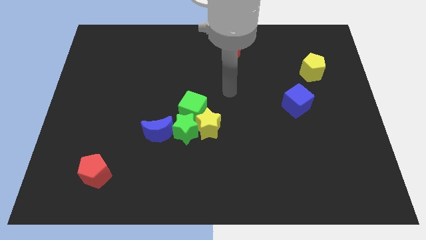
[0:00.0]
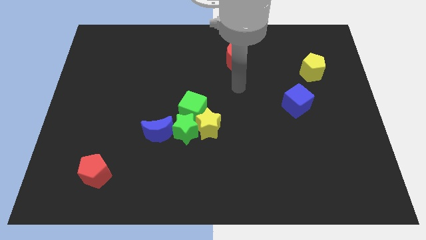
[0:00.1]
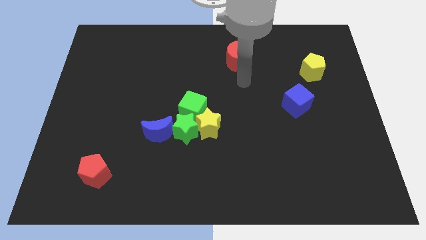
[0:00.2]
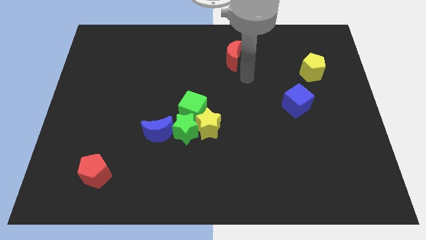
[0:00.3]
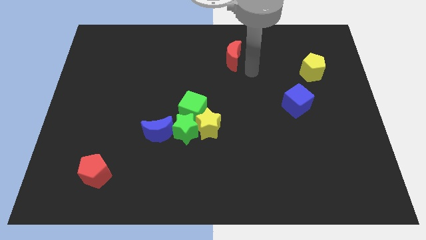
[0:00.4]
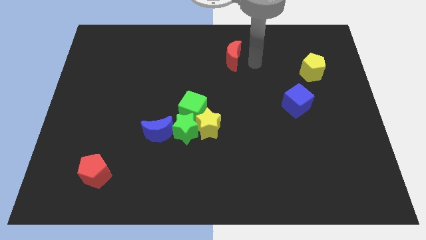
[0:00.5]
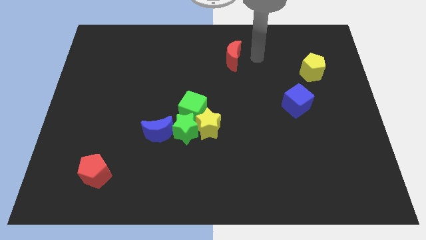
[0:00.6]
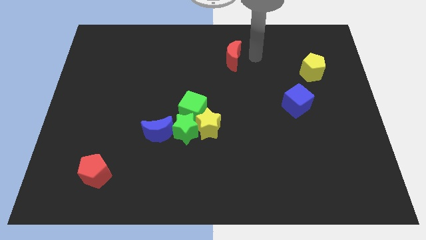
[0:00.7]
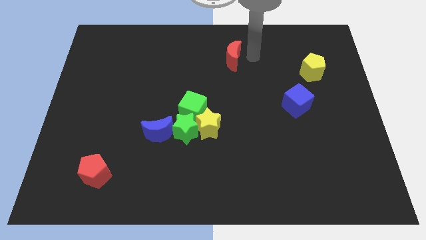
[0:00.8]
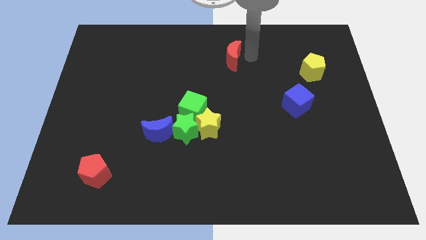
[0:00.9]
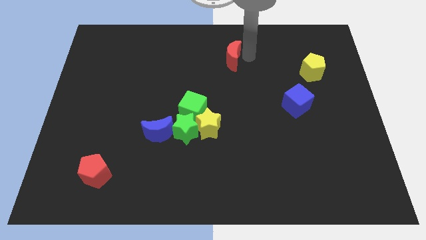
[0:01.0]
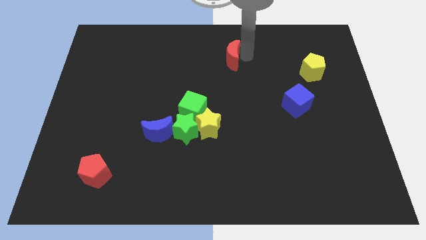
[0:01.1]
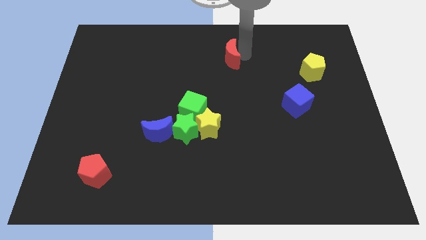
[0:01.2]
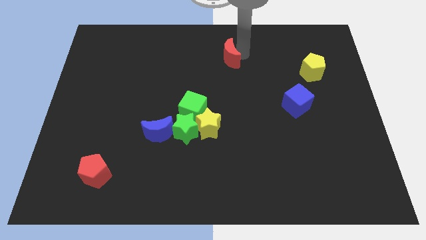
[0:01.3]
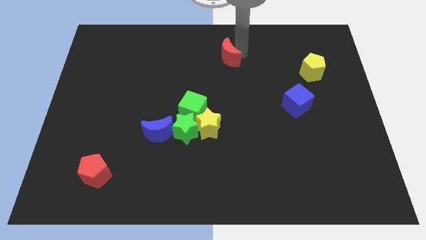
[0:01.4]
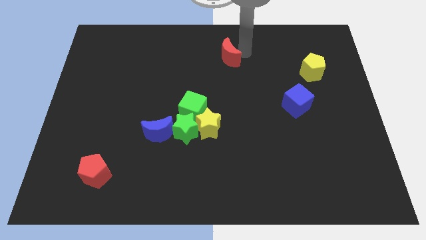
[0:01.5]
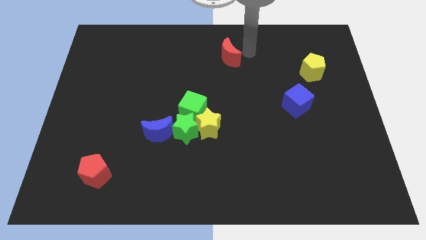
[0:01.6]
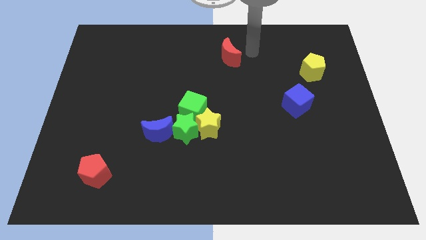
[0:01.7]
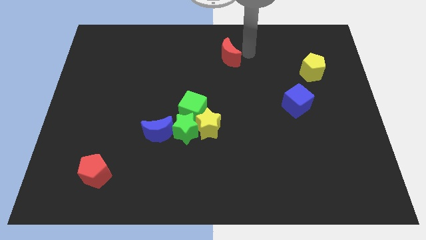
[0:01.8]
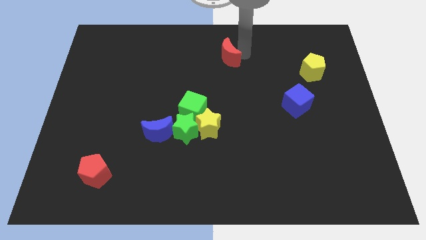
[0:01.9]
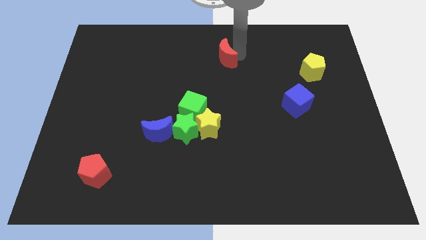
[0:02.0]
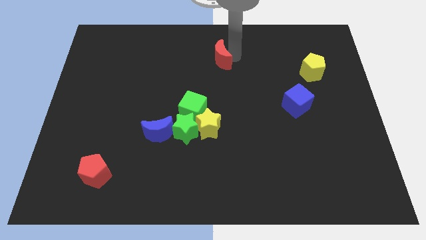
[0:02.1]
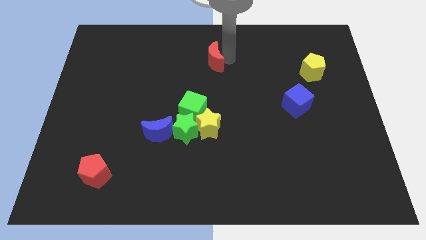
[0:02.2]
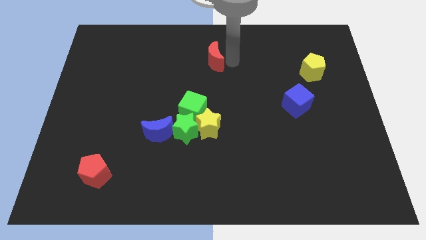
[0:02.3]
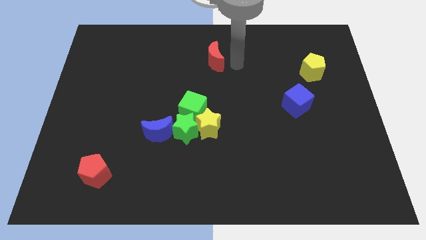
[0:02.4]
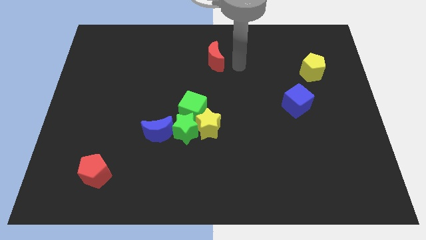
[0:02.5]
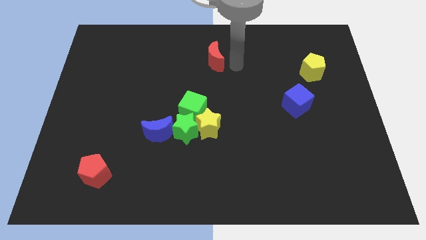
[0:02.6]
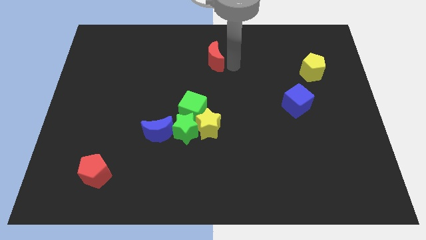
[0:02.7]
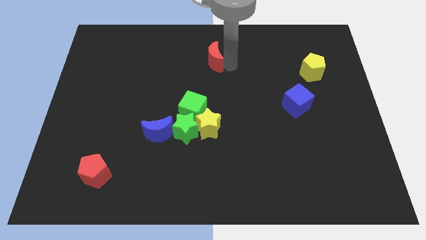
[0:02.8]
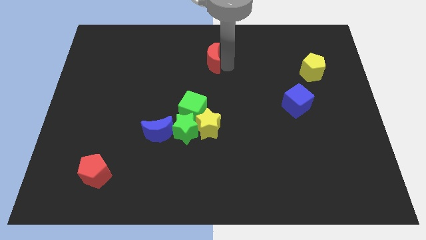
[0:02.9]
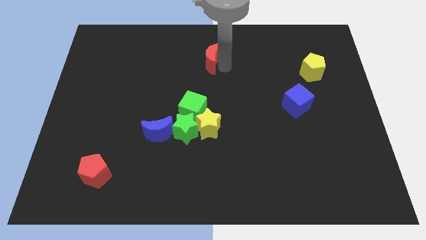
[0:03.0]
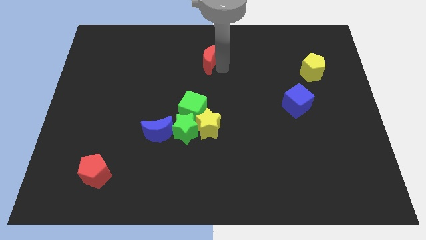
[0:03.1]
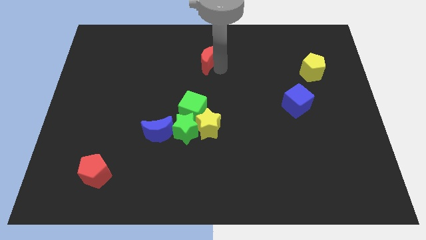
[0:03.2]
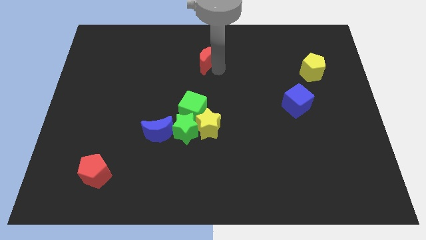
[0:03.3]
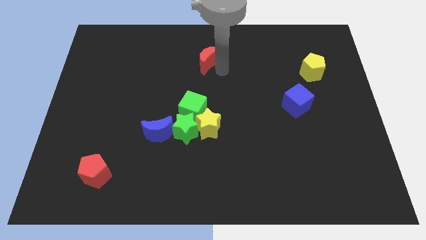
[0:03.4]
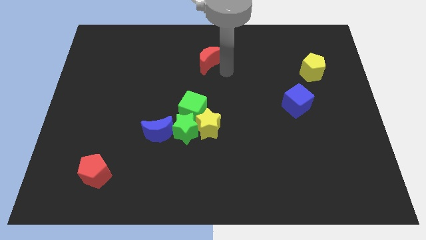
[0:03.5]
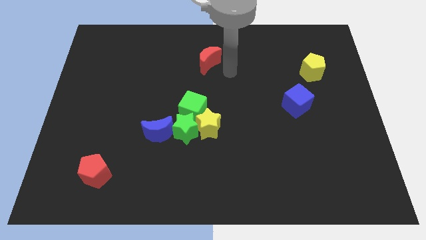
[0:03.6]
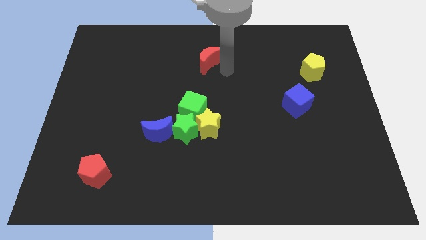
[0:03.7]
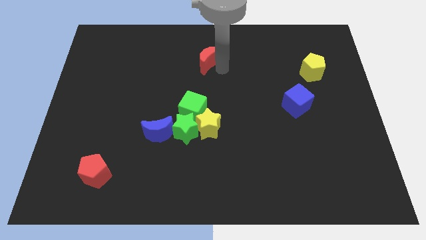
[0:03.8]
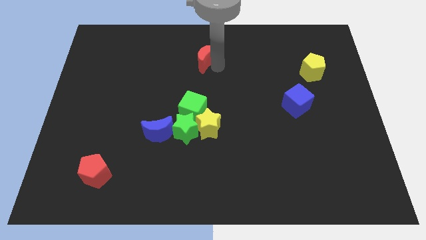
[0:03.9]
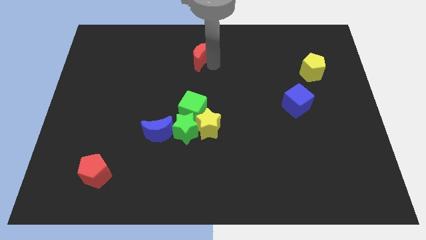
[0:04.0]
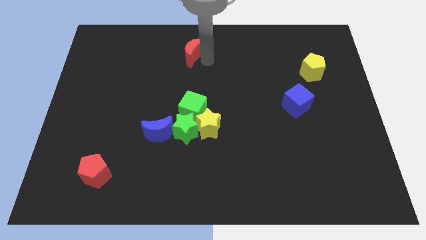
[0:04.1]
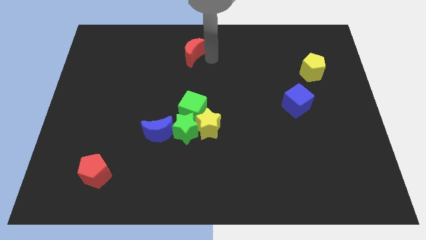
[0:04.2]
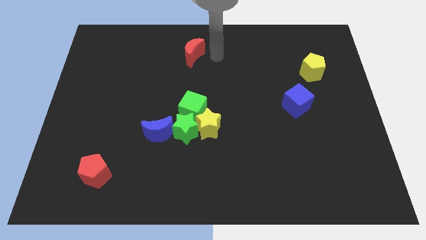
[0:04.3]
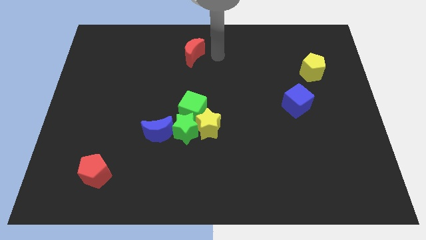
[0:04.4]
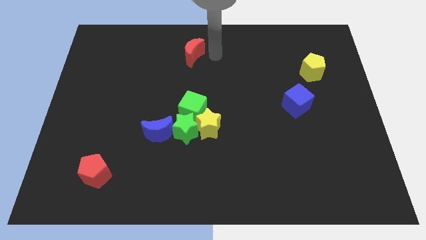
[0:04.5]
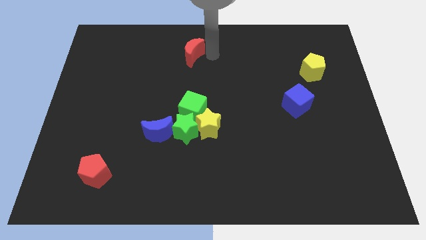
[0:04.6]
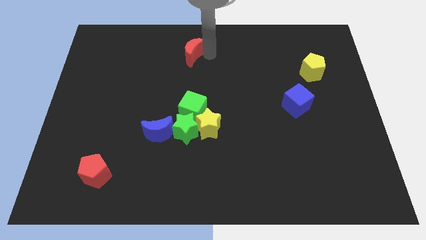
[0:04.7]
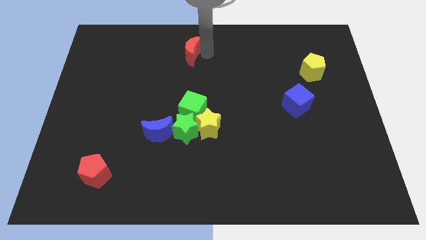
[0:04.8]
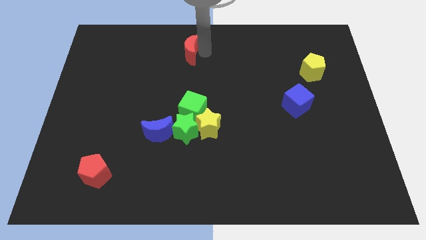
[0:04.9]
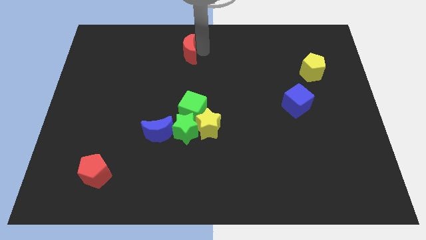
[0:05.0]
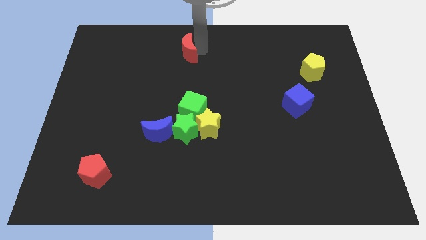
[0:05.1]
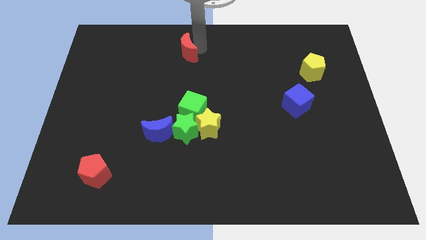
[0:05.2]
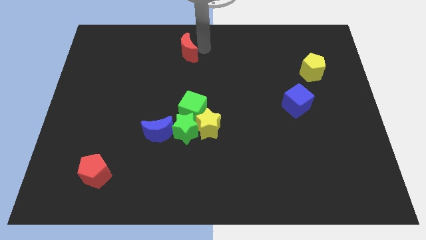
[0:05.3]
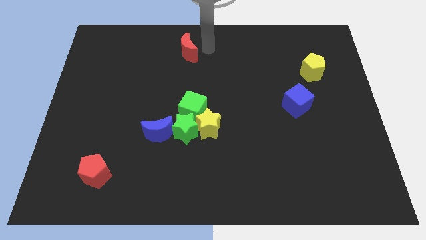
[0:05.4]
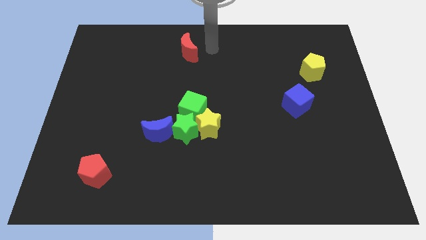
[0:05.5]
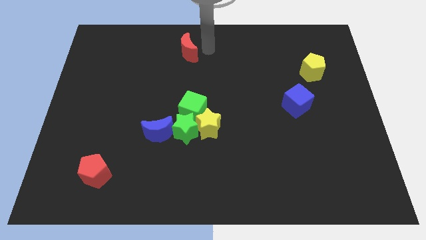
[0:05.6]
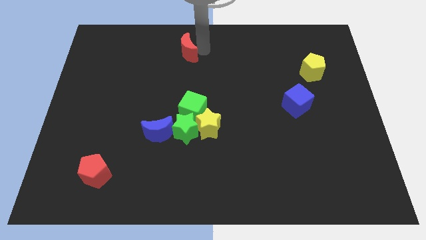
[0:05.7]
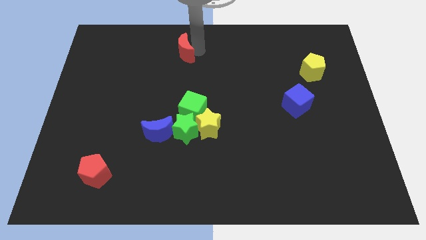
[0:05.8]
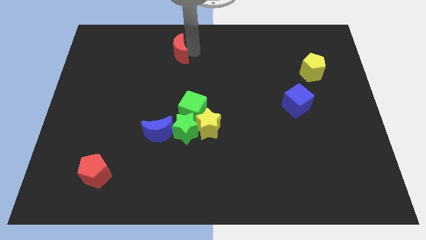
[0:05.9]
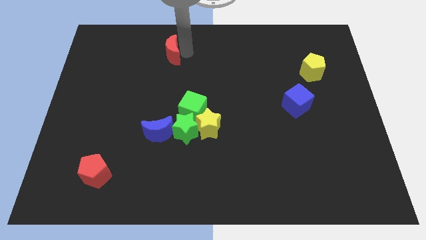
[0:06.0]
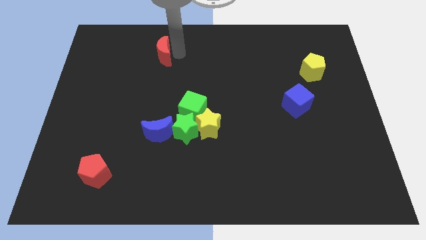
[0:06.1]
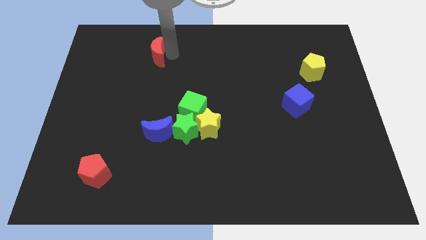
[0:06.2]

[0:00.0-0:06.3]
move the red moon left

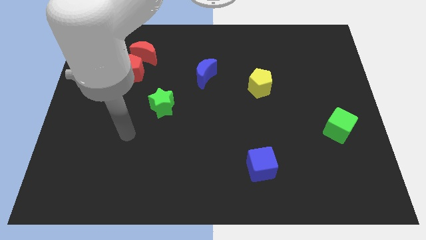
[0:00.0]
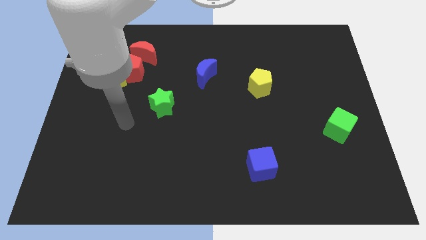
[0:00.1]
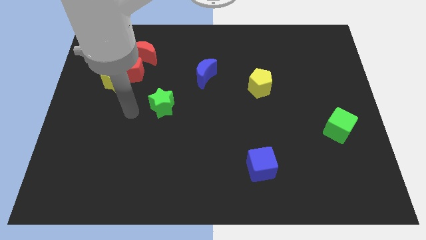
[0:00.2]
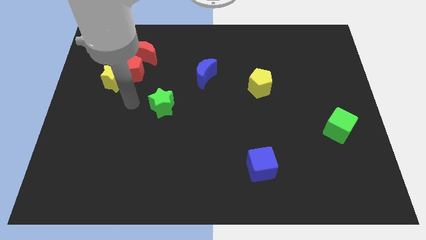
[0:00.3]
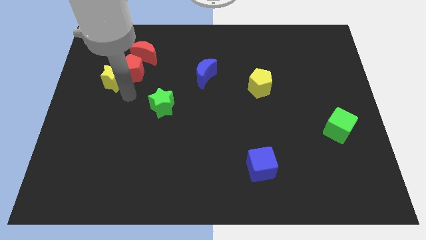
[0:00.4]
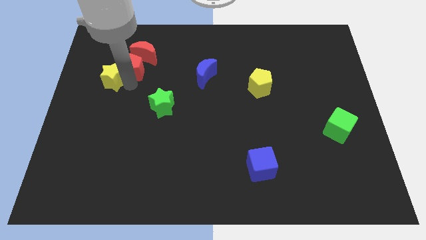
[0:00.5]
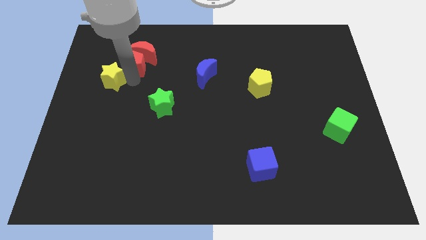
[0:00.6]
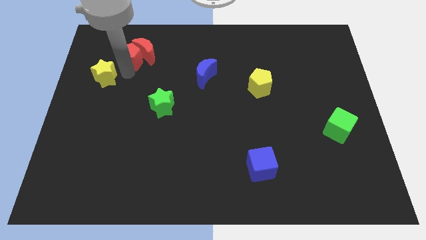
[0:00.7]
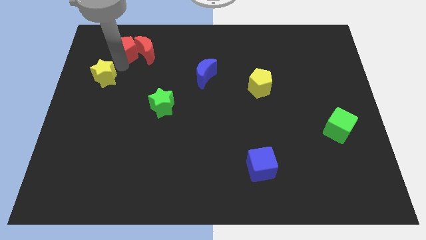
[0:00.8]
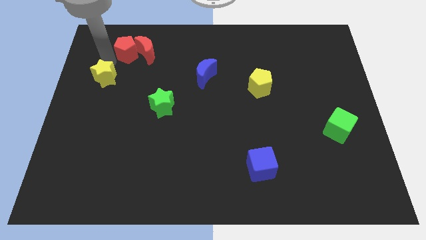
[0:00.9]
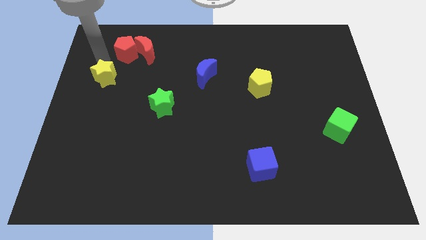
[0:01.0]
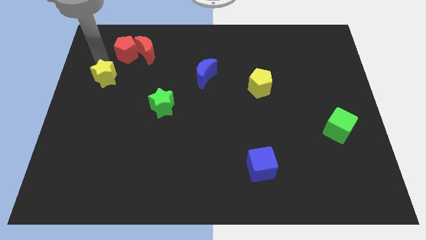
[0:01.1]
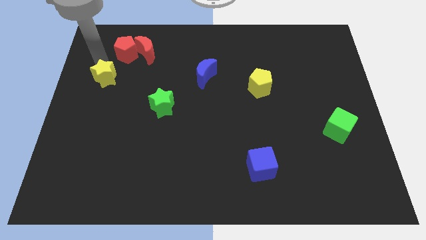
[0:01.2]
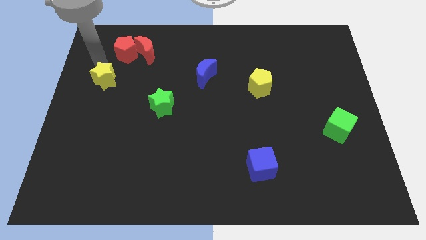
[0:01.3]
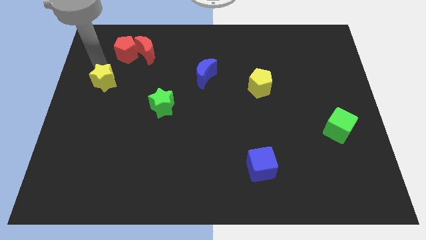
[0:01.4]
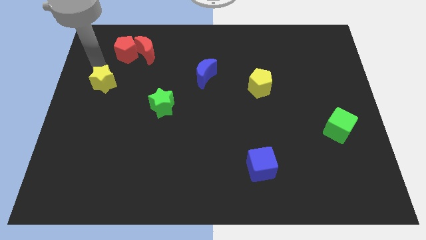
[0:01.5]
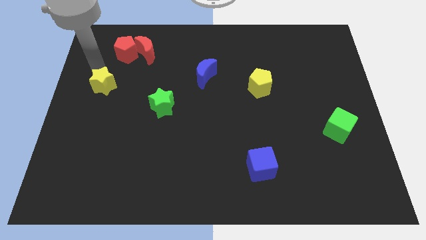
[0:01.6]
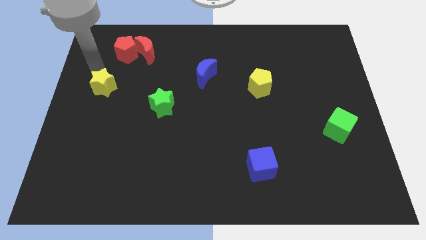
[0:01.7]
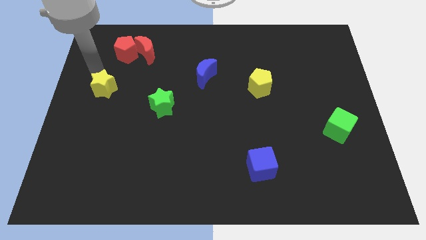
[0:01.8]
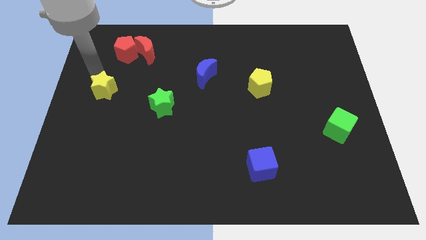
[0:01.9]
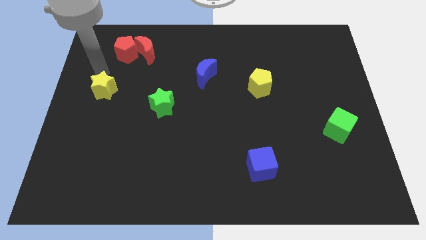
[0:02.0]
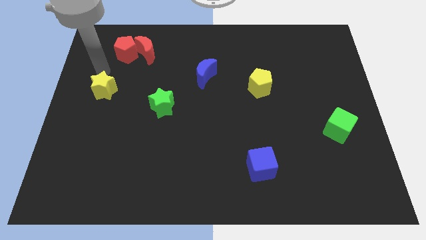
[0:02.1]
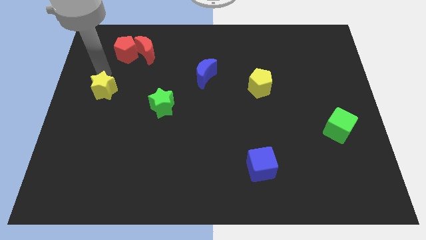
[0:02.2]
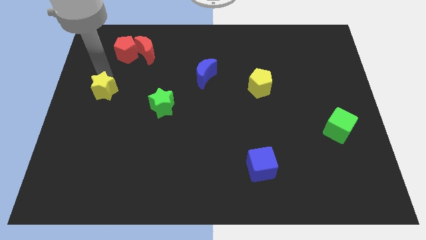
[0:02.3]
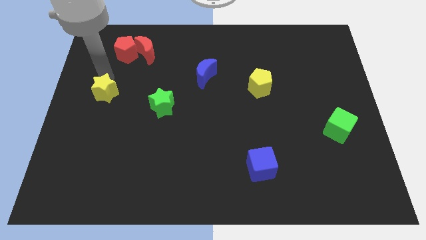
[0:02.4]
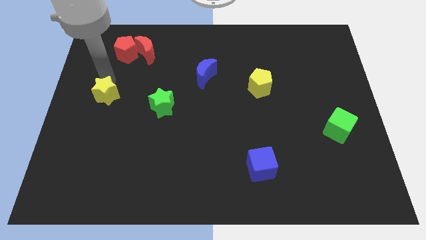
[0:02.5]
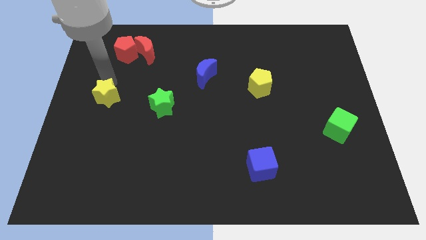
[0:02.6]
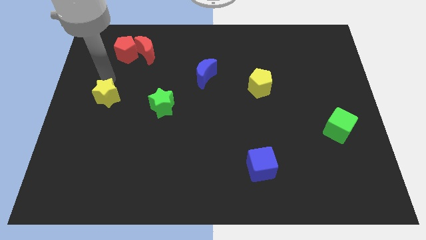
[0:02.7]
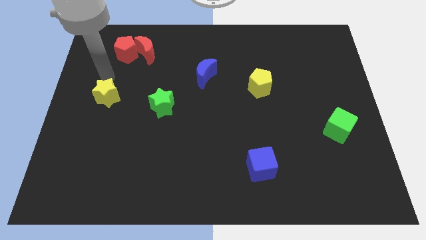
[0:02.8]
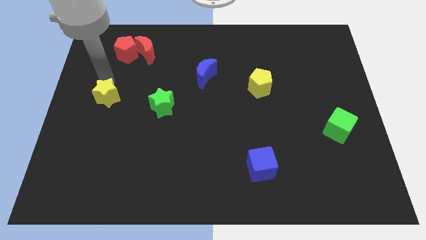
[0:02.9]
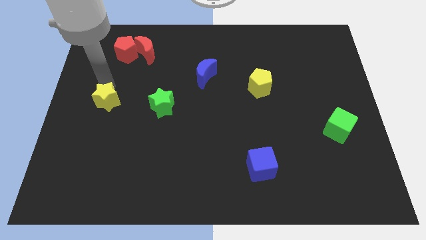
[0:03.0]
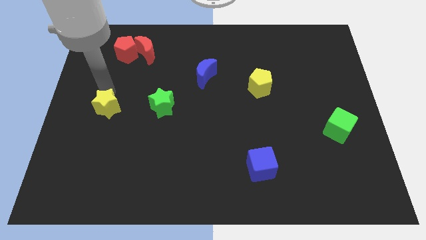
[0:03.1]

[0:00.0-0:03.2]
slide the yellow star a little bit down
